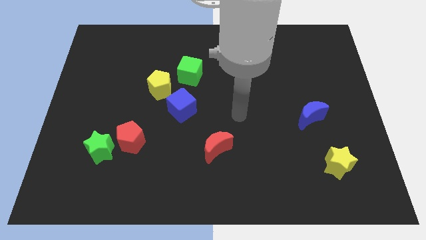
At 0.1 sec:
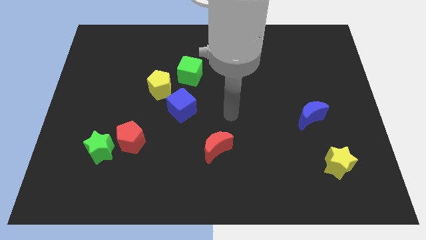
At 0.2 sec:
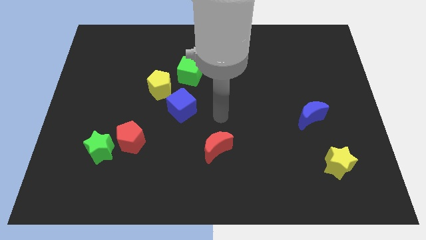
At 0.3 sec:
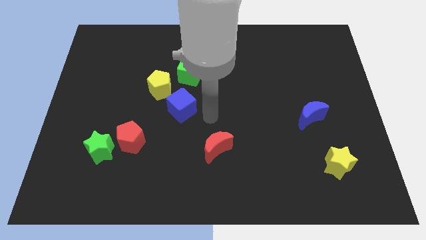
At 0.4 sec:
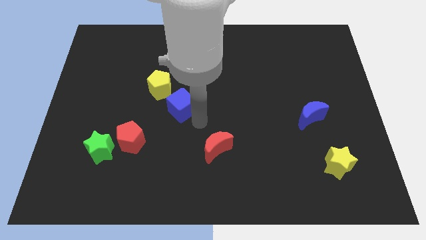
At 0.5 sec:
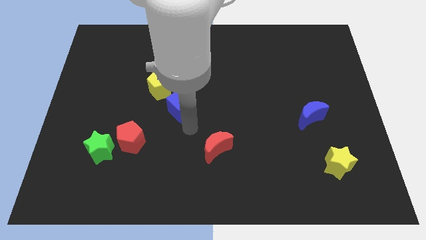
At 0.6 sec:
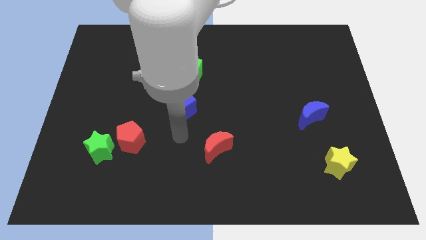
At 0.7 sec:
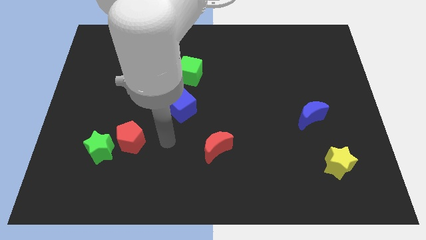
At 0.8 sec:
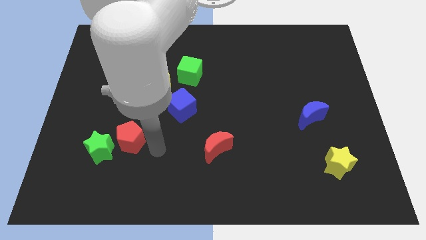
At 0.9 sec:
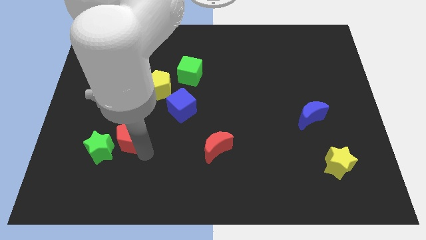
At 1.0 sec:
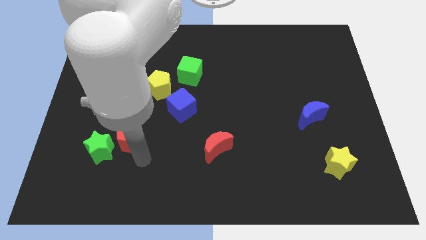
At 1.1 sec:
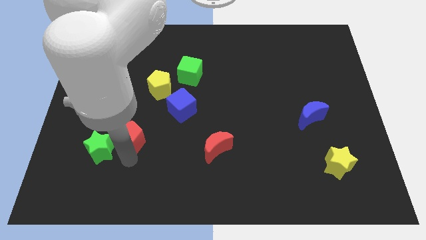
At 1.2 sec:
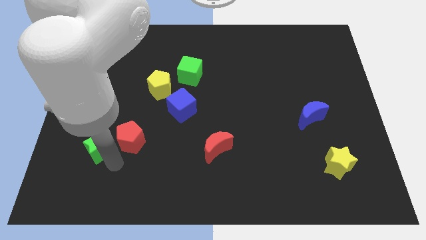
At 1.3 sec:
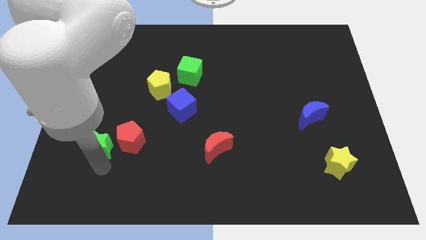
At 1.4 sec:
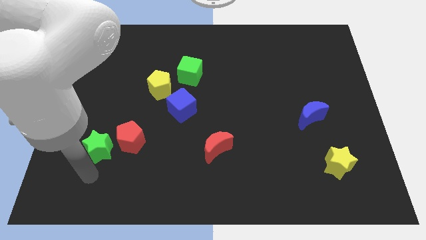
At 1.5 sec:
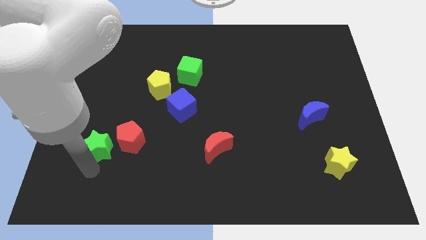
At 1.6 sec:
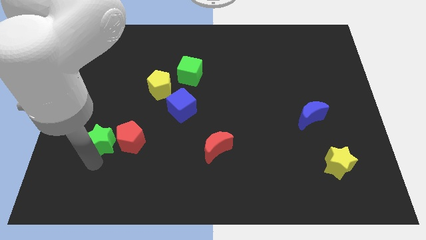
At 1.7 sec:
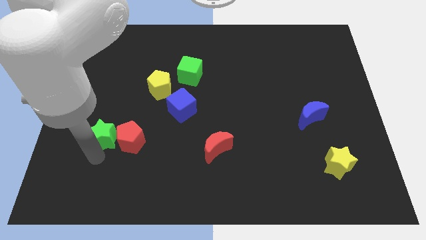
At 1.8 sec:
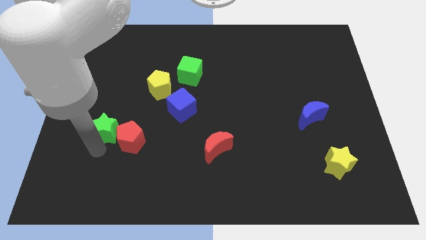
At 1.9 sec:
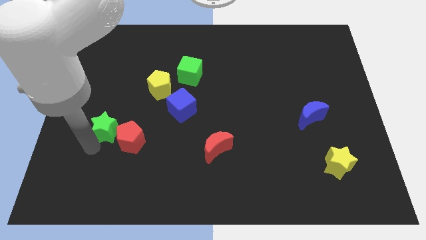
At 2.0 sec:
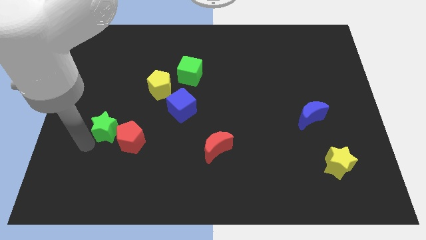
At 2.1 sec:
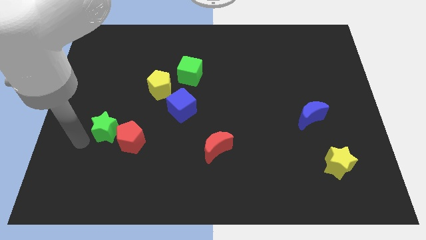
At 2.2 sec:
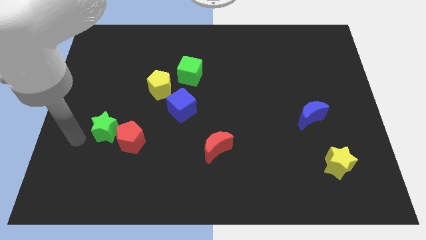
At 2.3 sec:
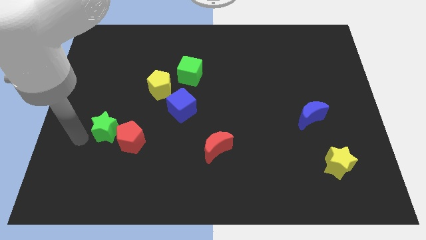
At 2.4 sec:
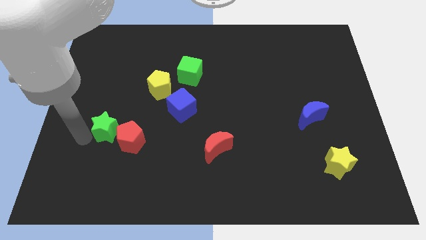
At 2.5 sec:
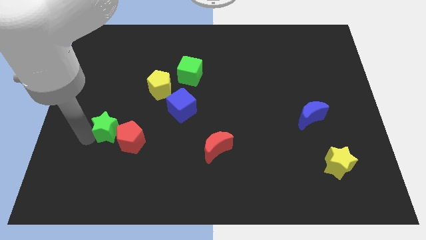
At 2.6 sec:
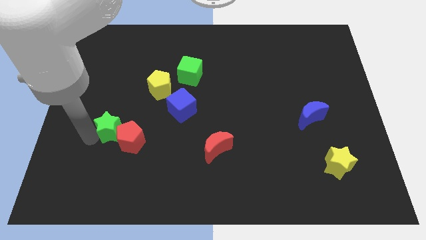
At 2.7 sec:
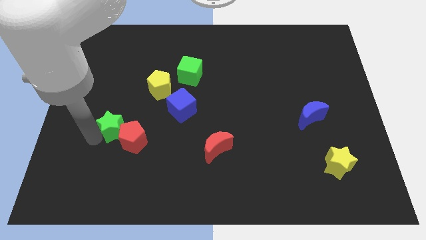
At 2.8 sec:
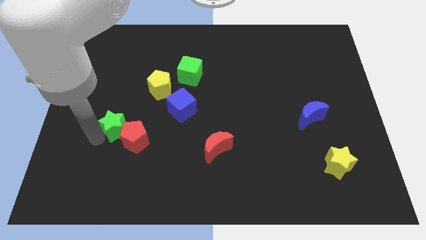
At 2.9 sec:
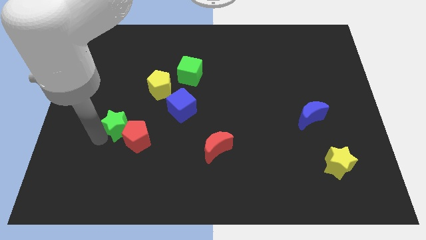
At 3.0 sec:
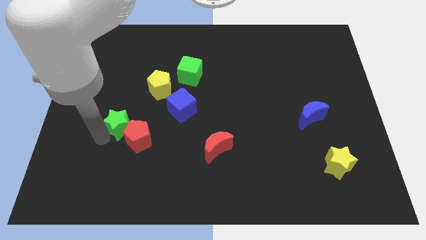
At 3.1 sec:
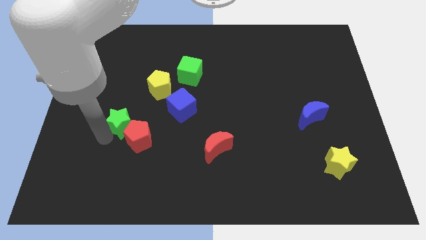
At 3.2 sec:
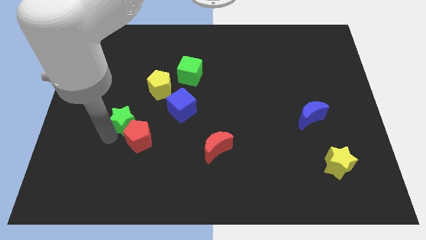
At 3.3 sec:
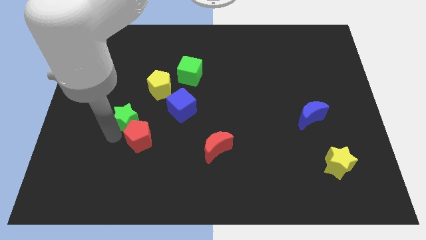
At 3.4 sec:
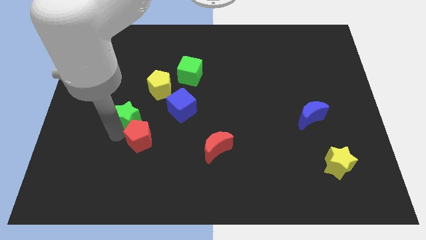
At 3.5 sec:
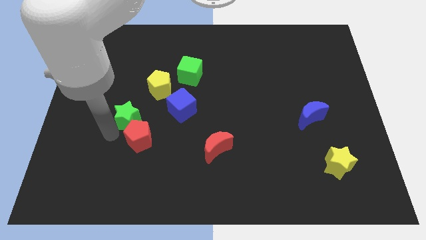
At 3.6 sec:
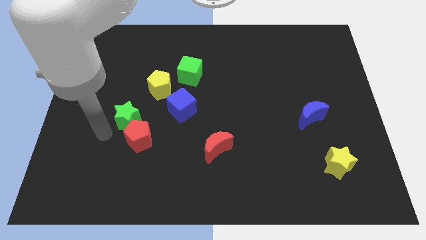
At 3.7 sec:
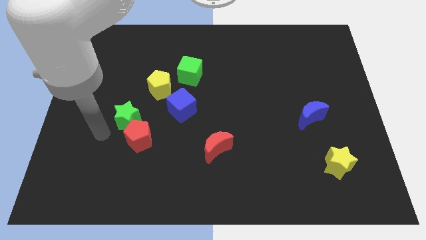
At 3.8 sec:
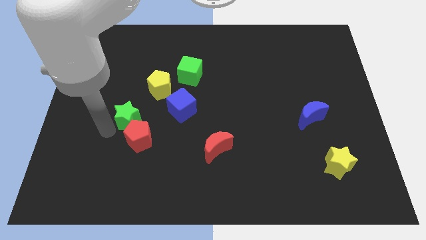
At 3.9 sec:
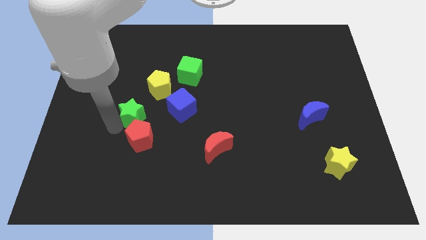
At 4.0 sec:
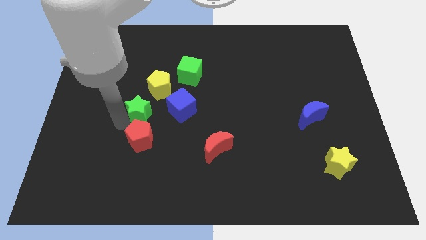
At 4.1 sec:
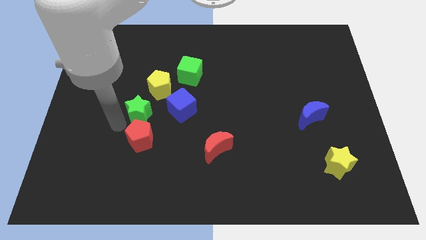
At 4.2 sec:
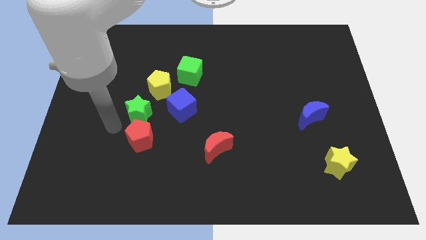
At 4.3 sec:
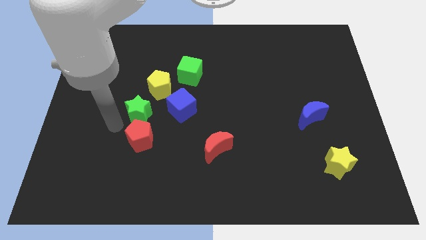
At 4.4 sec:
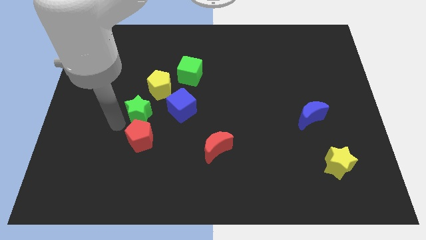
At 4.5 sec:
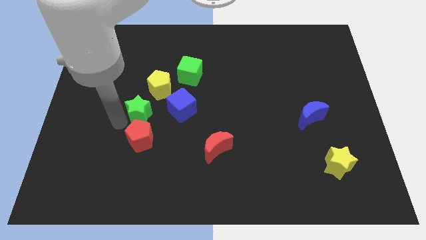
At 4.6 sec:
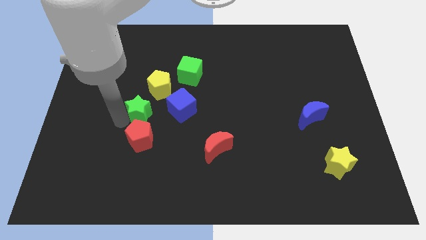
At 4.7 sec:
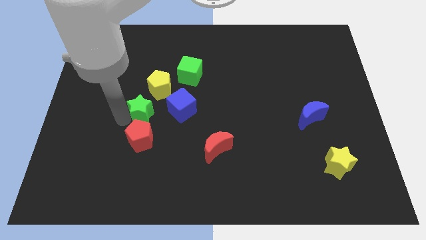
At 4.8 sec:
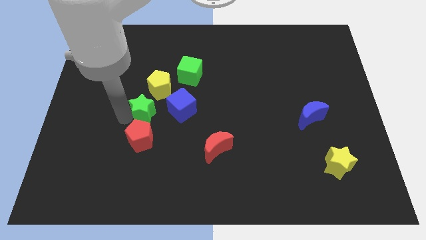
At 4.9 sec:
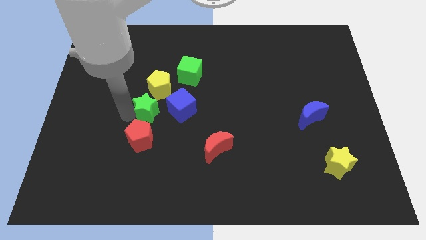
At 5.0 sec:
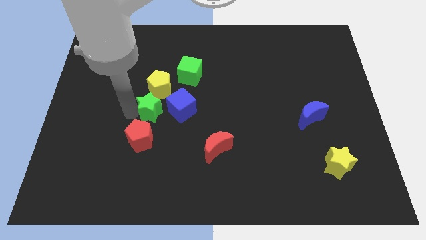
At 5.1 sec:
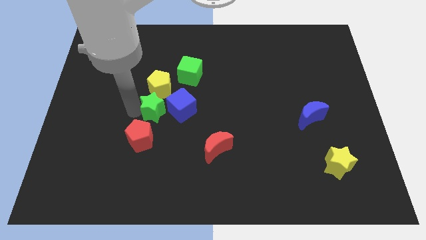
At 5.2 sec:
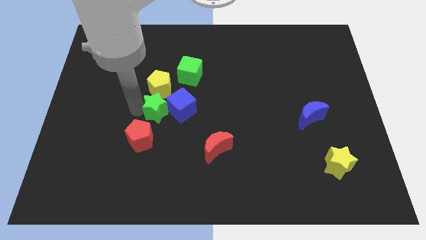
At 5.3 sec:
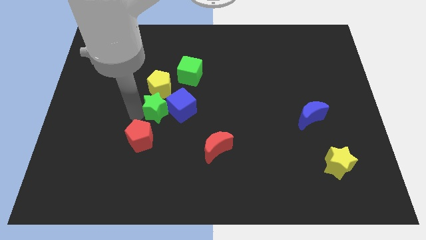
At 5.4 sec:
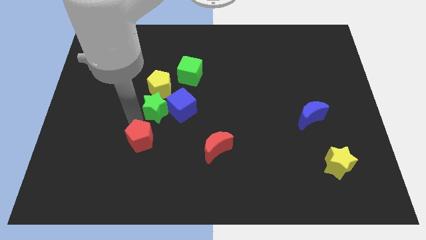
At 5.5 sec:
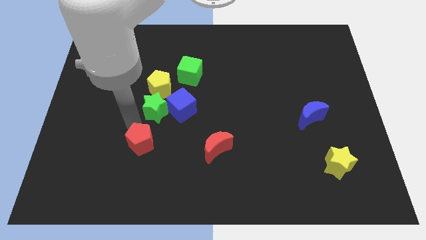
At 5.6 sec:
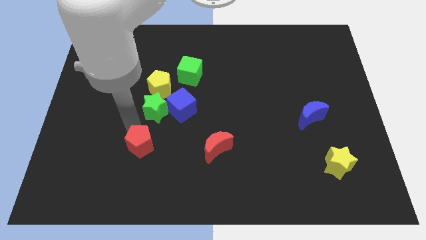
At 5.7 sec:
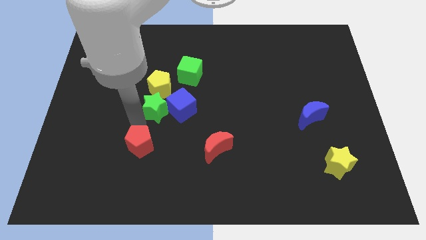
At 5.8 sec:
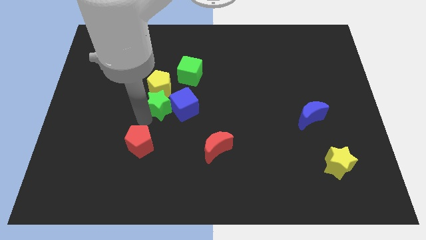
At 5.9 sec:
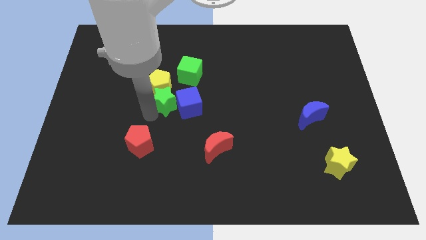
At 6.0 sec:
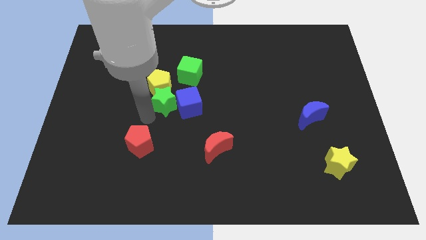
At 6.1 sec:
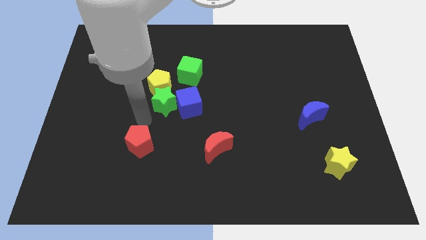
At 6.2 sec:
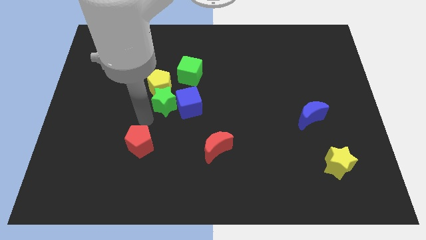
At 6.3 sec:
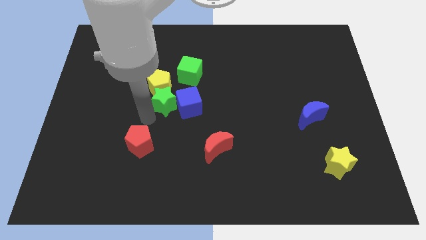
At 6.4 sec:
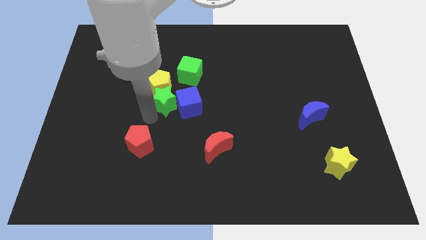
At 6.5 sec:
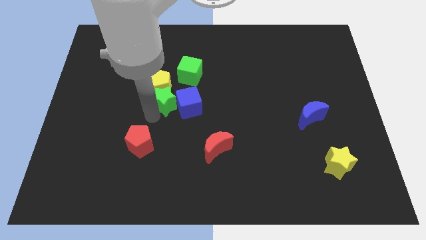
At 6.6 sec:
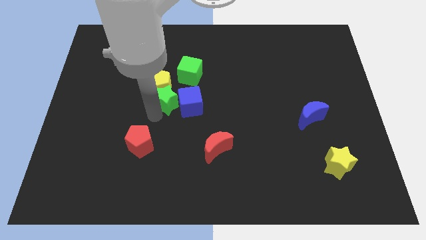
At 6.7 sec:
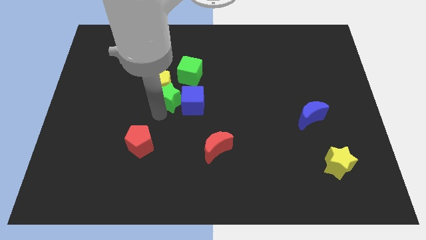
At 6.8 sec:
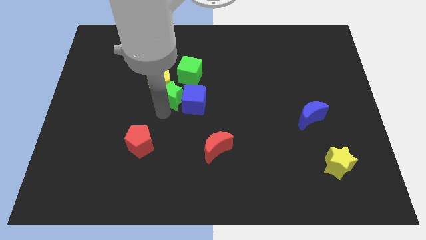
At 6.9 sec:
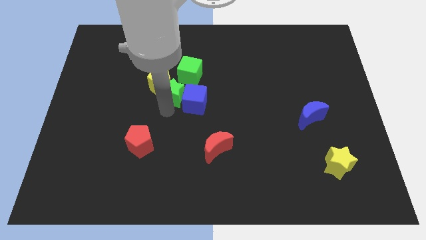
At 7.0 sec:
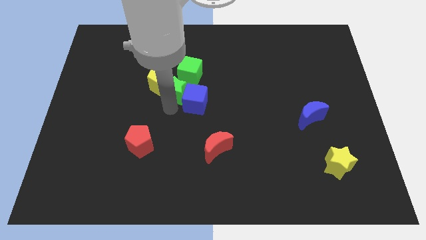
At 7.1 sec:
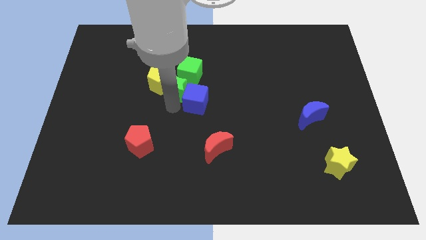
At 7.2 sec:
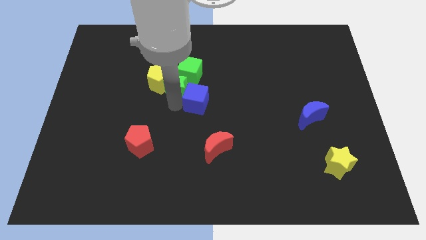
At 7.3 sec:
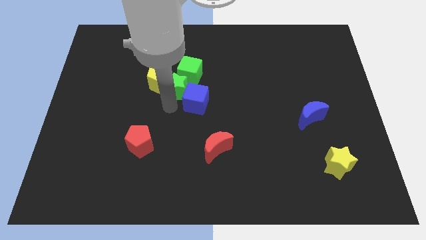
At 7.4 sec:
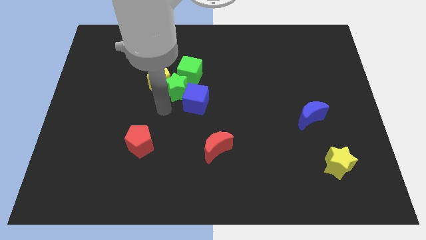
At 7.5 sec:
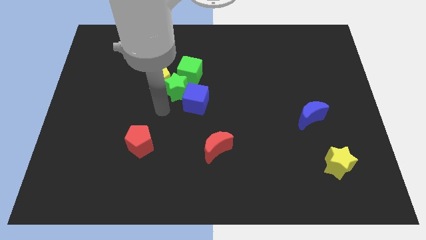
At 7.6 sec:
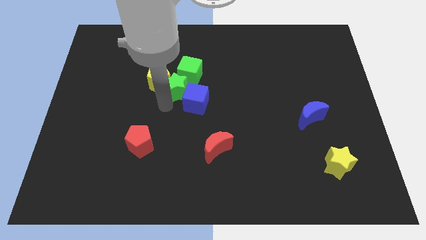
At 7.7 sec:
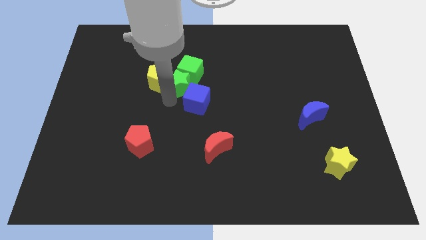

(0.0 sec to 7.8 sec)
slide the green star next to the green cube
